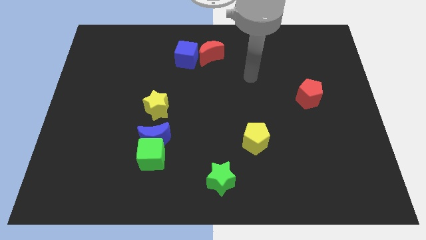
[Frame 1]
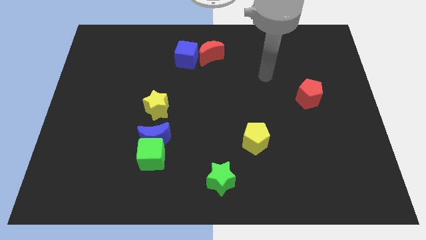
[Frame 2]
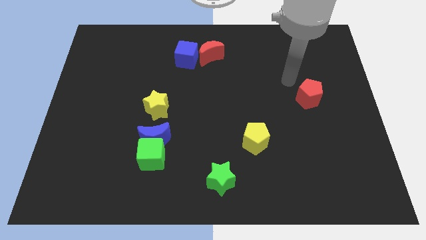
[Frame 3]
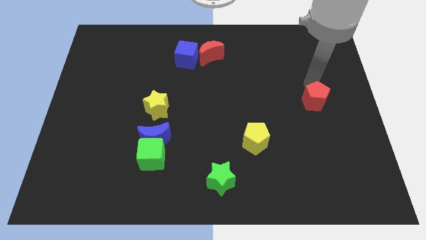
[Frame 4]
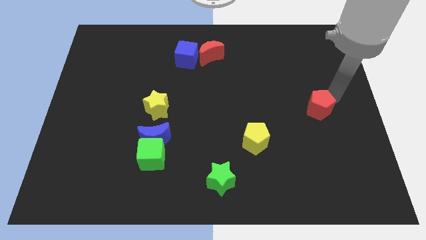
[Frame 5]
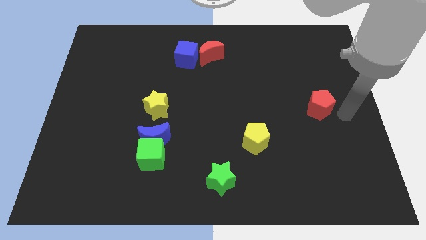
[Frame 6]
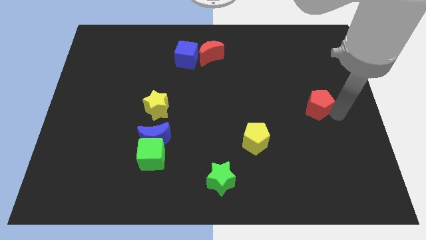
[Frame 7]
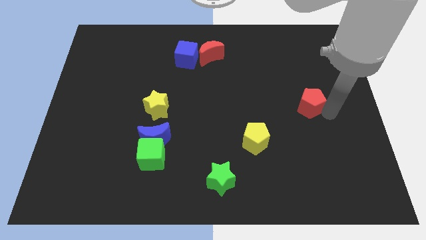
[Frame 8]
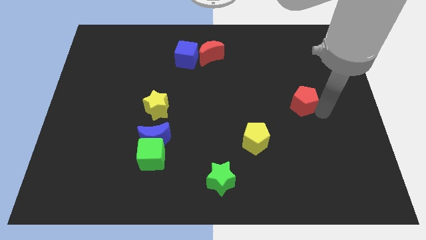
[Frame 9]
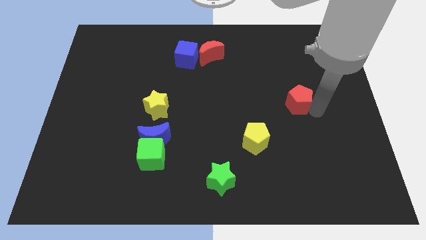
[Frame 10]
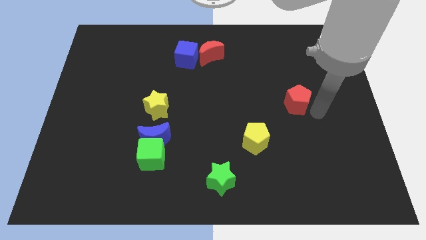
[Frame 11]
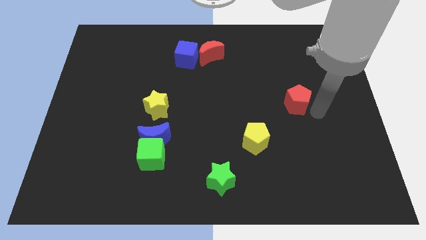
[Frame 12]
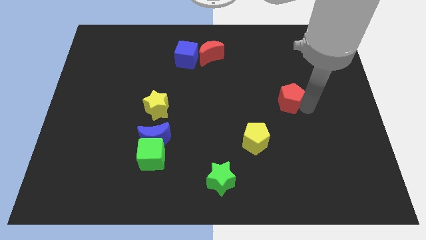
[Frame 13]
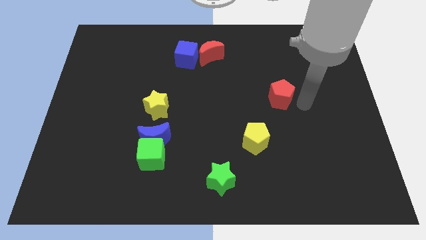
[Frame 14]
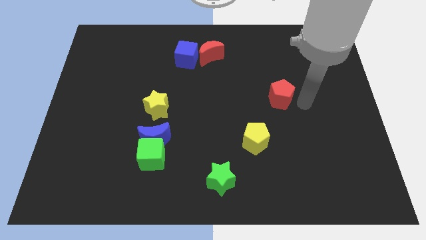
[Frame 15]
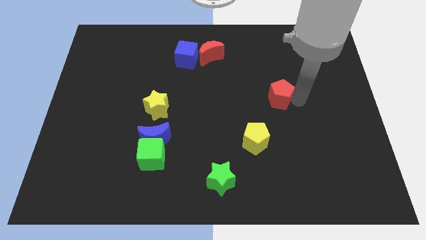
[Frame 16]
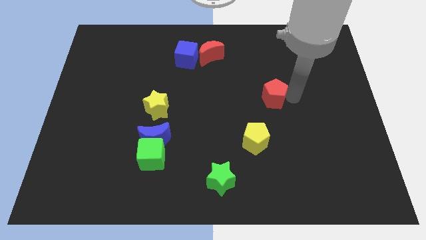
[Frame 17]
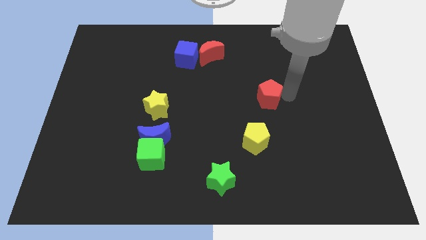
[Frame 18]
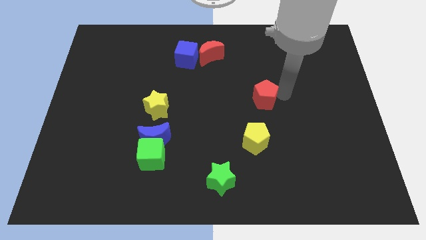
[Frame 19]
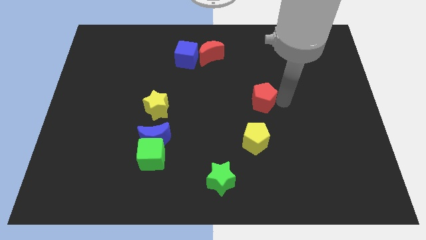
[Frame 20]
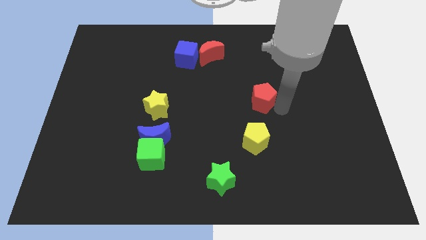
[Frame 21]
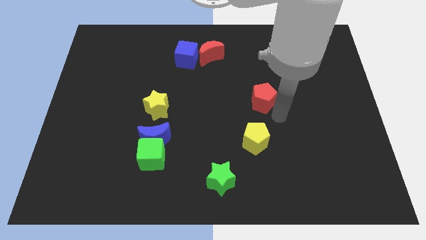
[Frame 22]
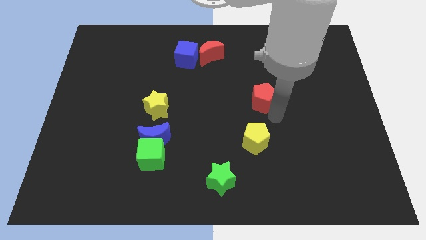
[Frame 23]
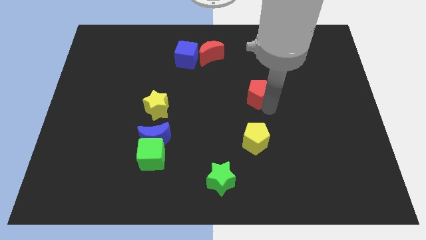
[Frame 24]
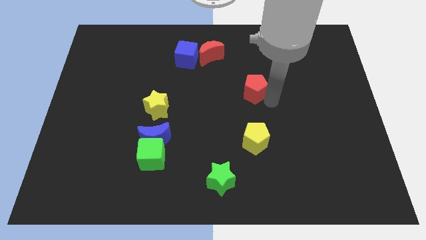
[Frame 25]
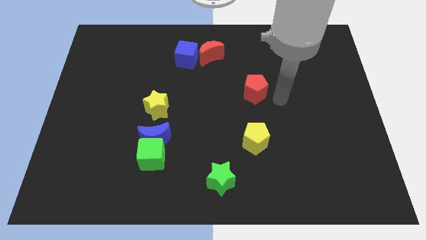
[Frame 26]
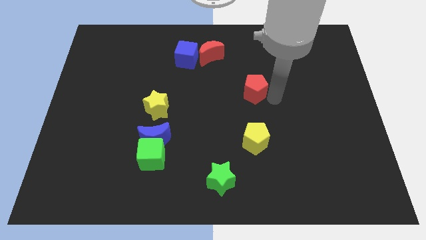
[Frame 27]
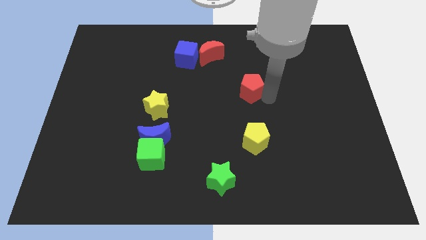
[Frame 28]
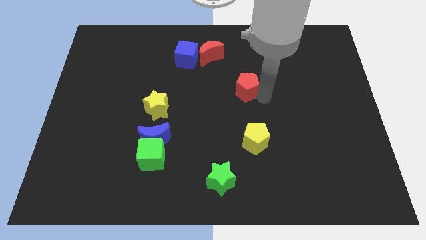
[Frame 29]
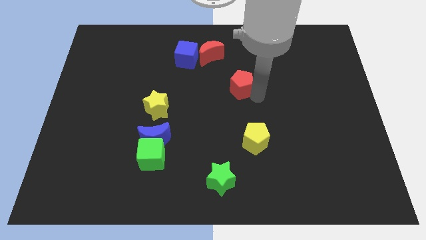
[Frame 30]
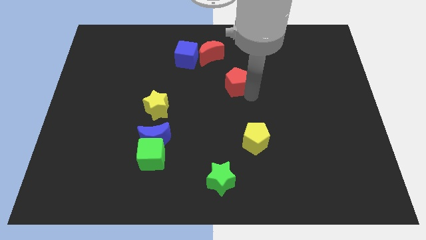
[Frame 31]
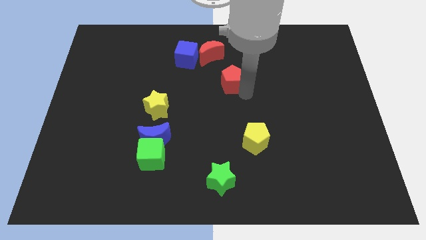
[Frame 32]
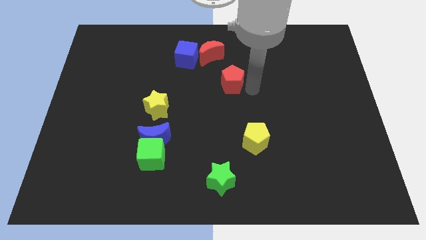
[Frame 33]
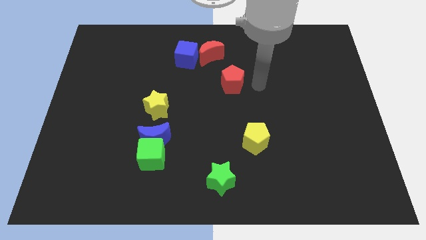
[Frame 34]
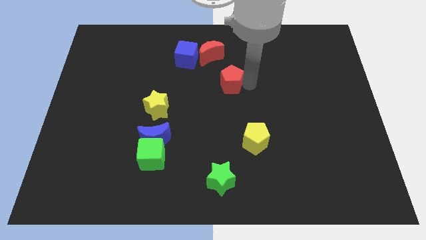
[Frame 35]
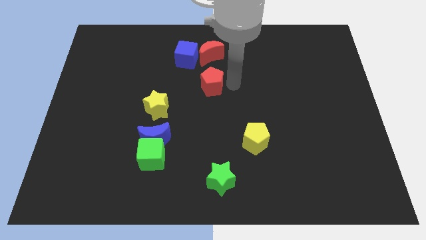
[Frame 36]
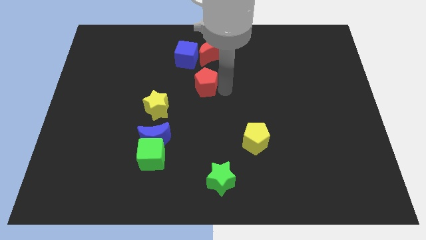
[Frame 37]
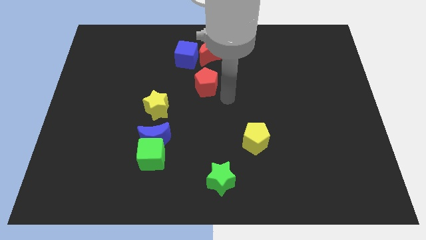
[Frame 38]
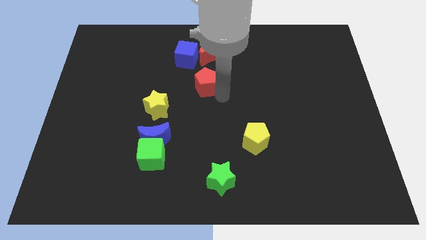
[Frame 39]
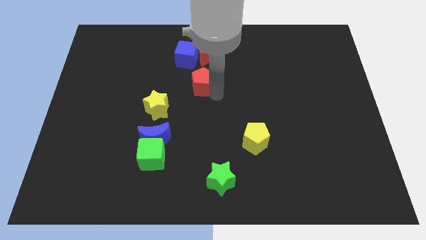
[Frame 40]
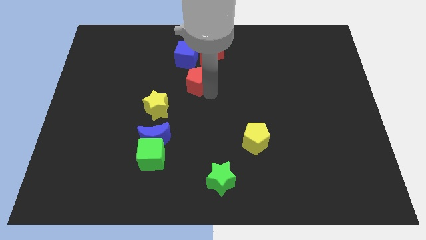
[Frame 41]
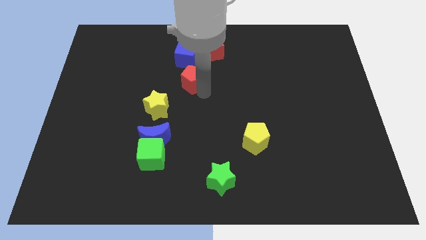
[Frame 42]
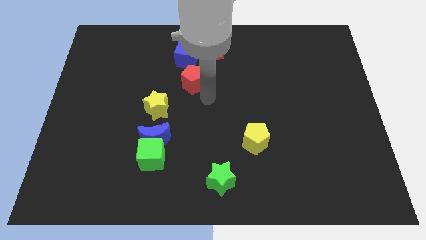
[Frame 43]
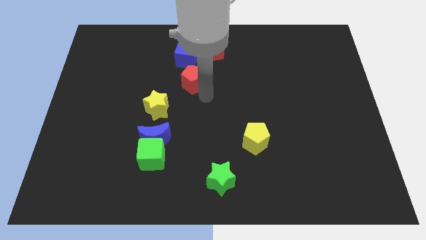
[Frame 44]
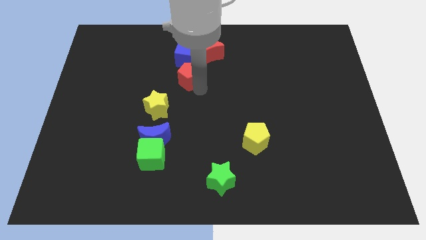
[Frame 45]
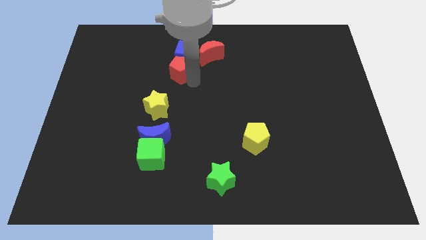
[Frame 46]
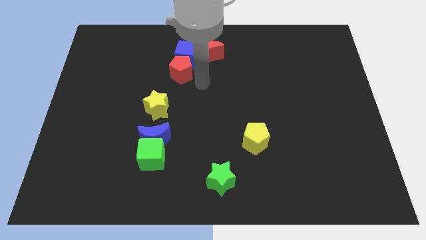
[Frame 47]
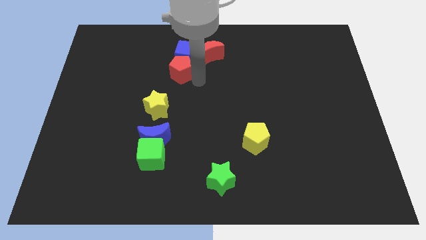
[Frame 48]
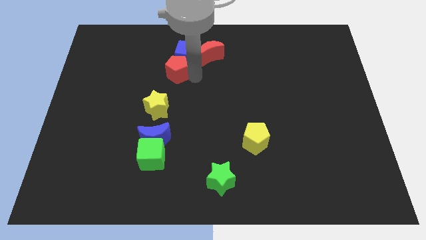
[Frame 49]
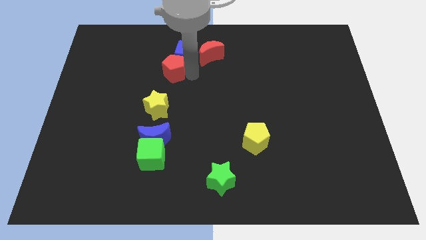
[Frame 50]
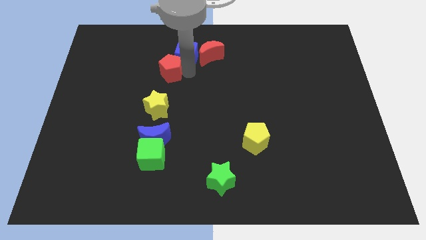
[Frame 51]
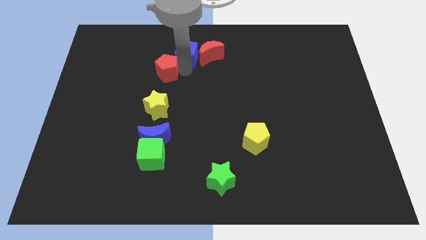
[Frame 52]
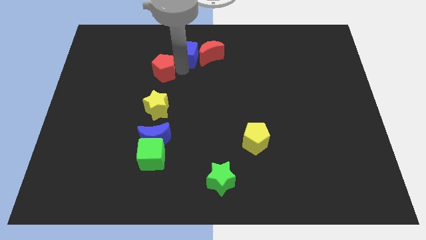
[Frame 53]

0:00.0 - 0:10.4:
push the red pentagon to the left of the blue cube

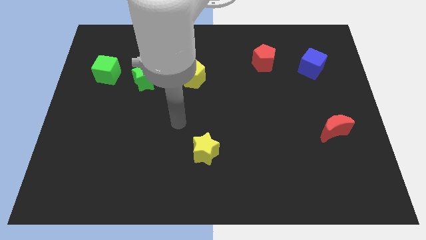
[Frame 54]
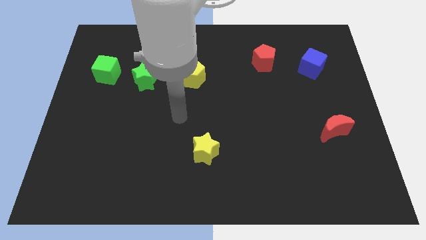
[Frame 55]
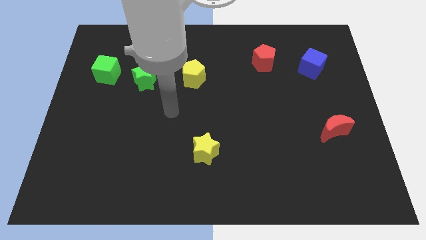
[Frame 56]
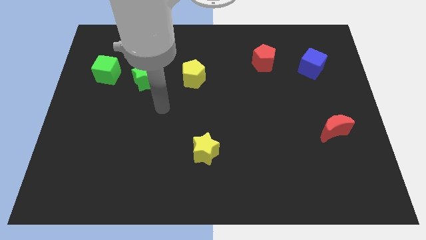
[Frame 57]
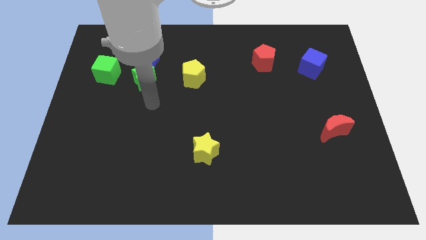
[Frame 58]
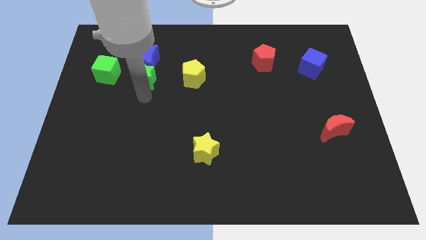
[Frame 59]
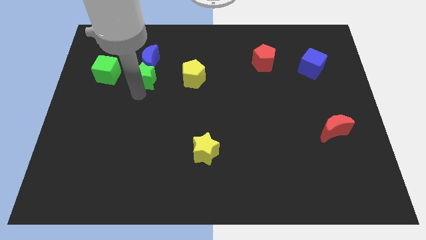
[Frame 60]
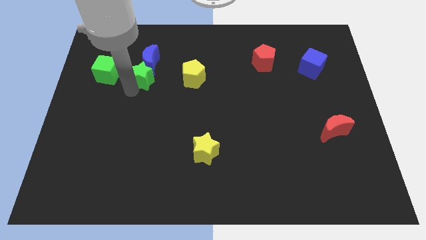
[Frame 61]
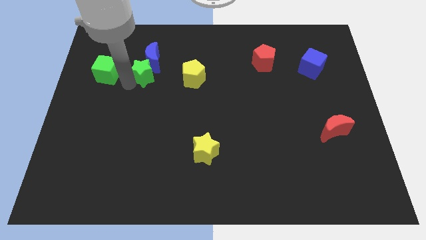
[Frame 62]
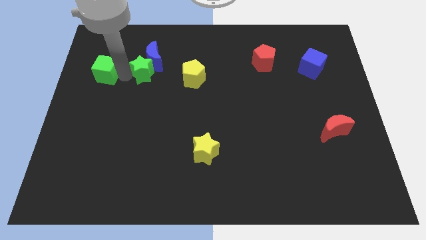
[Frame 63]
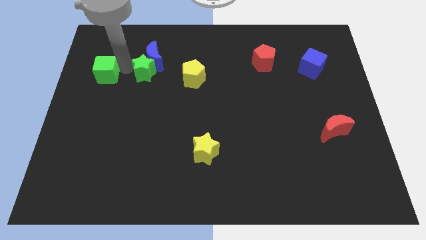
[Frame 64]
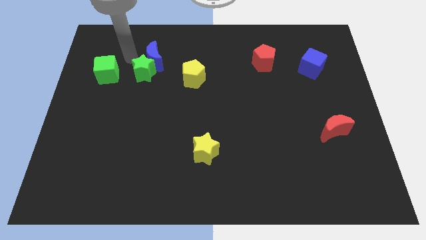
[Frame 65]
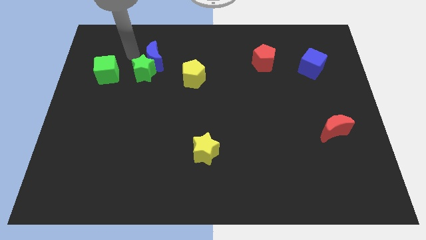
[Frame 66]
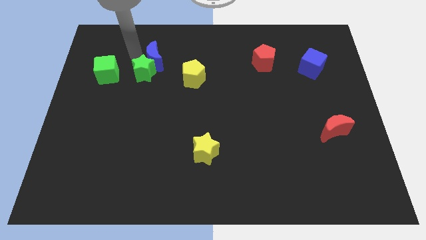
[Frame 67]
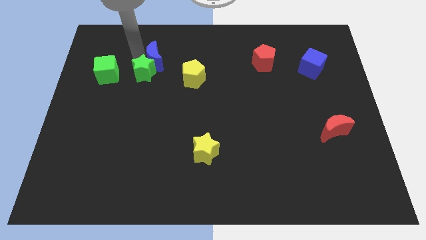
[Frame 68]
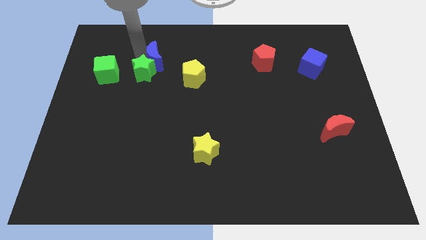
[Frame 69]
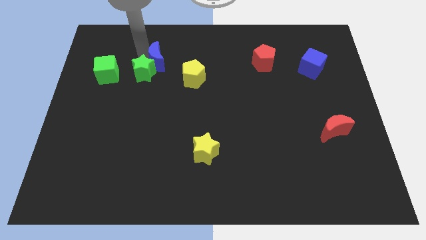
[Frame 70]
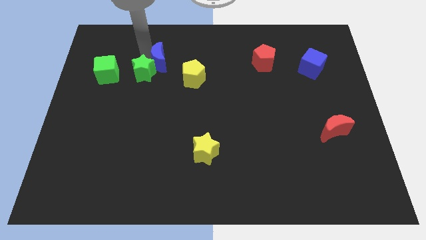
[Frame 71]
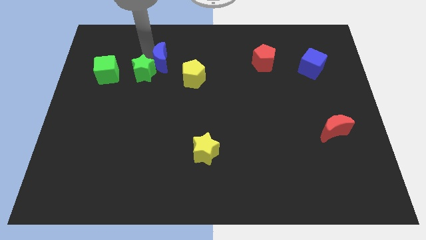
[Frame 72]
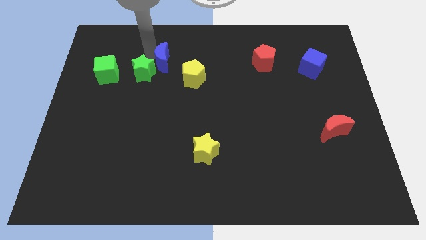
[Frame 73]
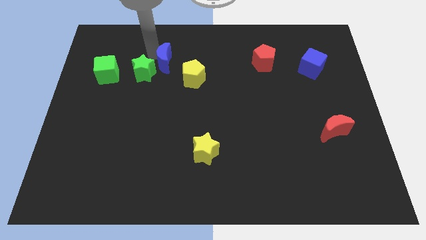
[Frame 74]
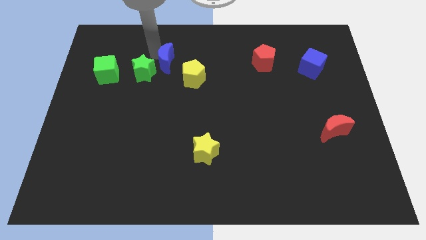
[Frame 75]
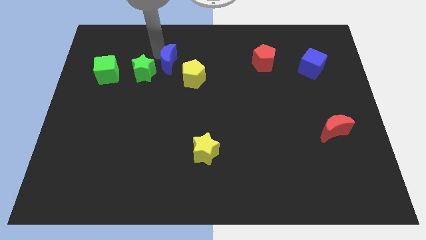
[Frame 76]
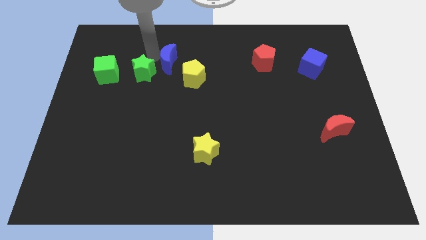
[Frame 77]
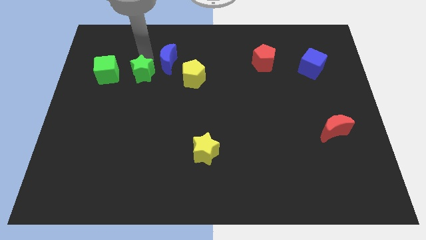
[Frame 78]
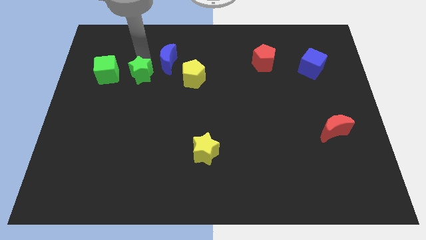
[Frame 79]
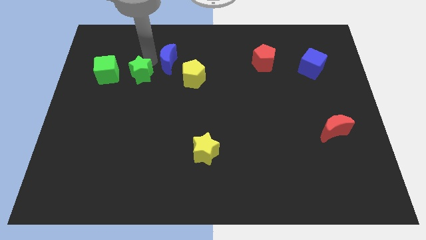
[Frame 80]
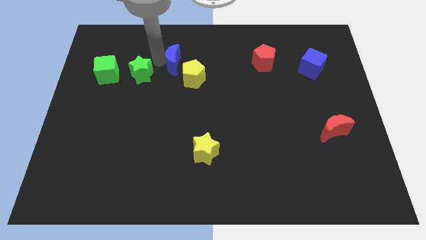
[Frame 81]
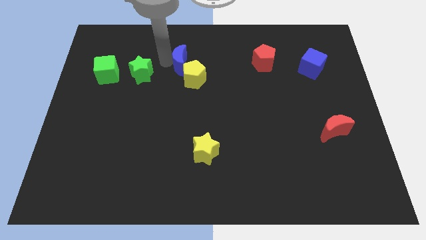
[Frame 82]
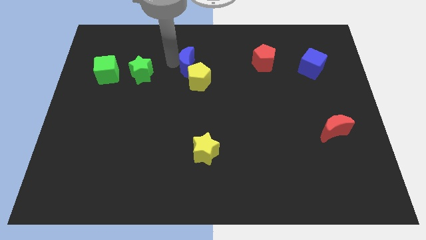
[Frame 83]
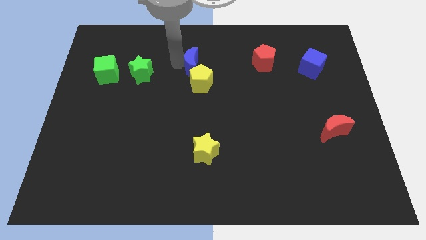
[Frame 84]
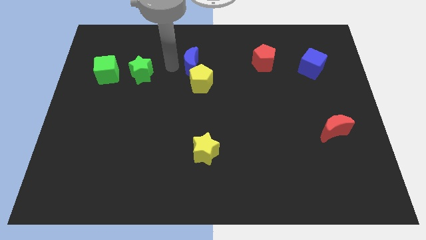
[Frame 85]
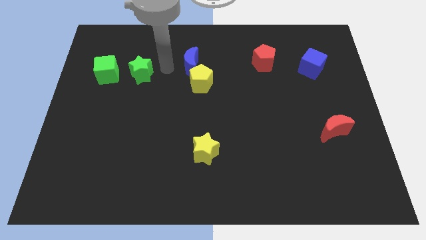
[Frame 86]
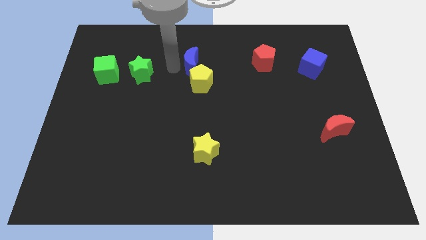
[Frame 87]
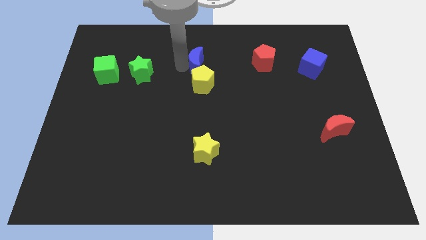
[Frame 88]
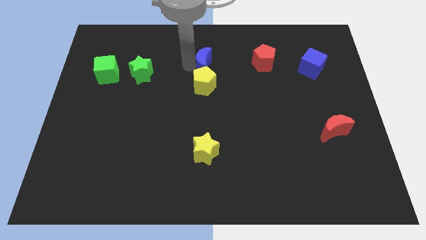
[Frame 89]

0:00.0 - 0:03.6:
put the blue moon left of the red pentagon
